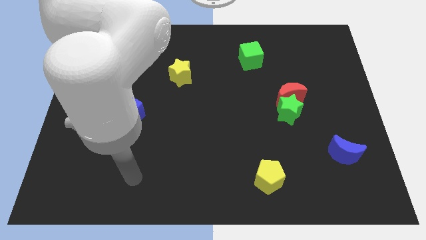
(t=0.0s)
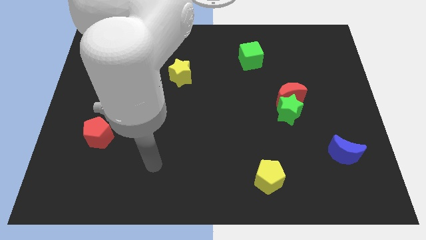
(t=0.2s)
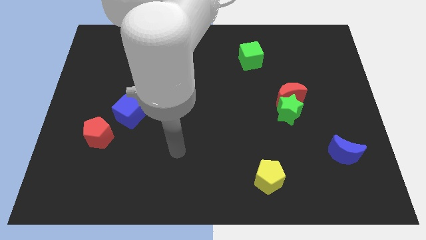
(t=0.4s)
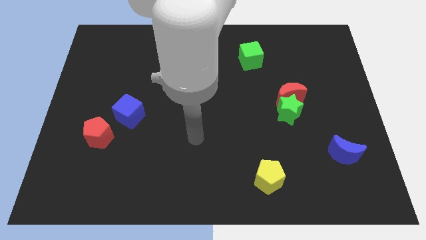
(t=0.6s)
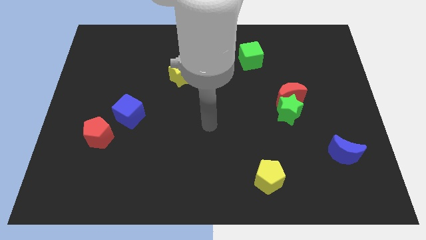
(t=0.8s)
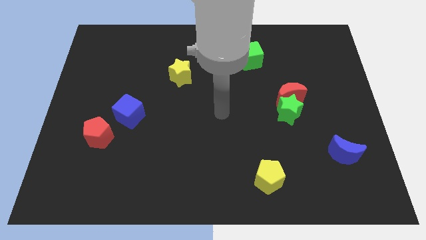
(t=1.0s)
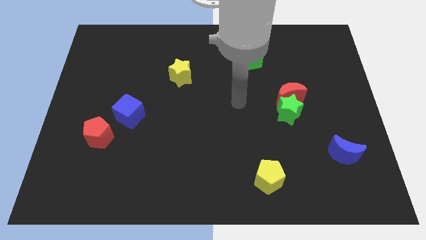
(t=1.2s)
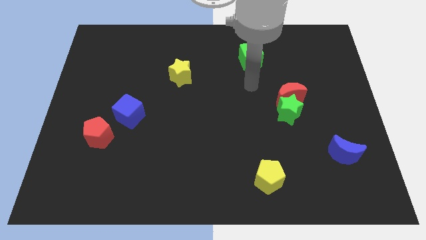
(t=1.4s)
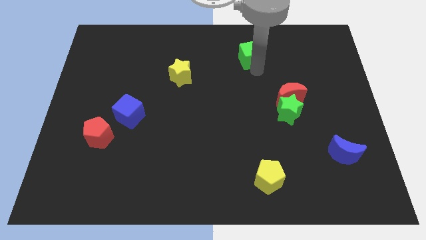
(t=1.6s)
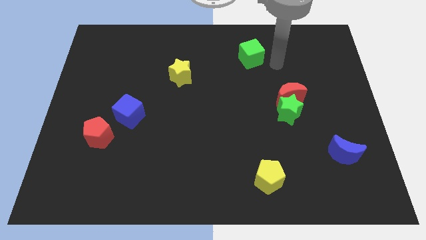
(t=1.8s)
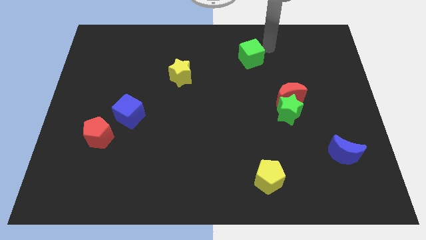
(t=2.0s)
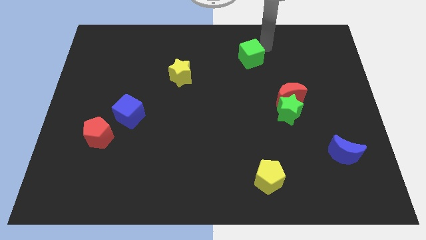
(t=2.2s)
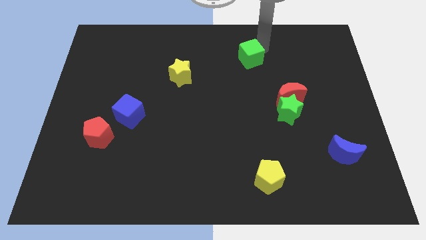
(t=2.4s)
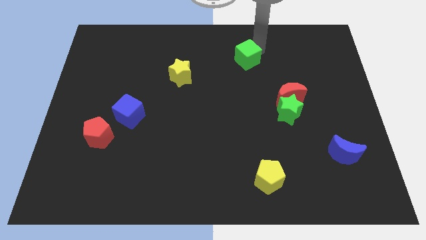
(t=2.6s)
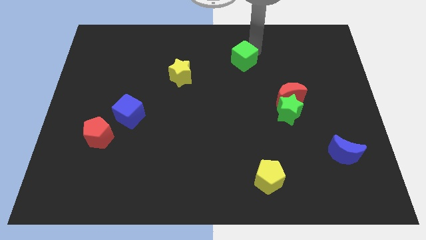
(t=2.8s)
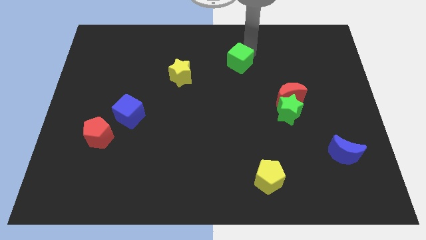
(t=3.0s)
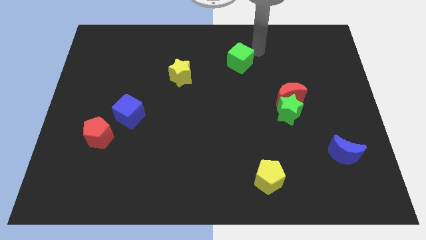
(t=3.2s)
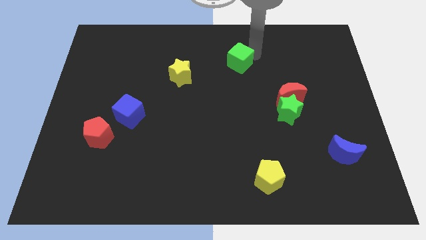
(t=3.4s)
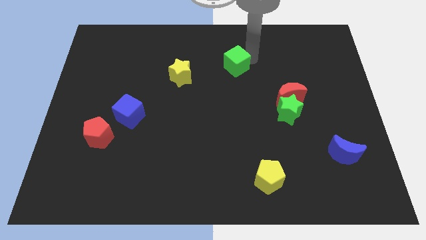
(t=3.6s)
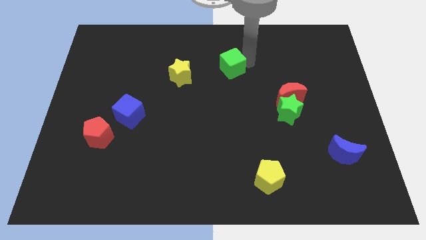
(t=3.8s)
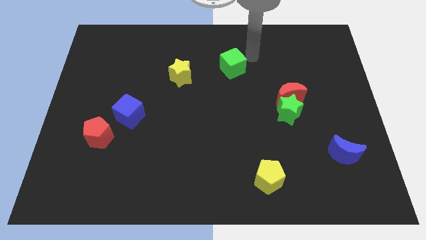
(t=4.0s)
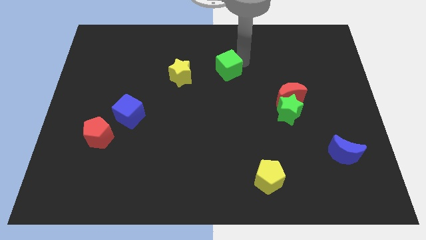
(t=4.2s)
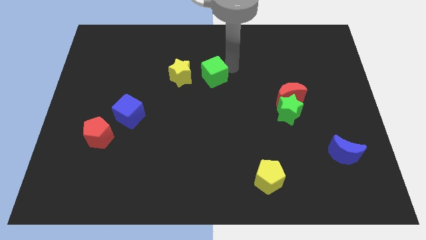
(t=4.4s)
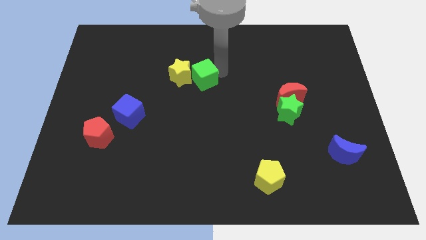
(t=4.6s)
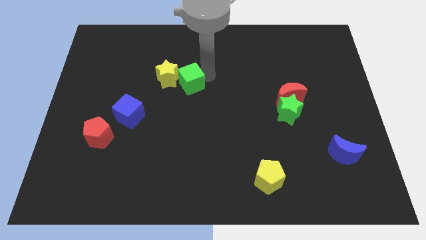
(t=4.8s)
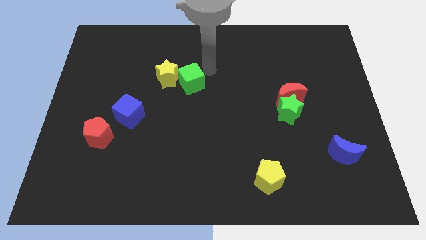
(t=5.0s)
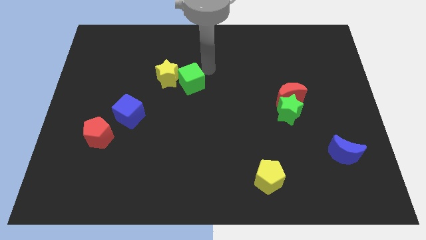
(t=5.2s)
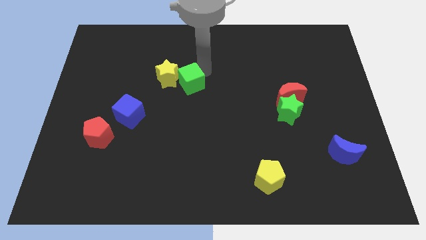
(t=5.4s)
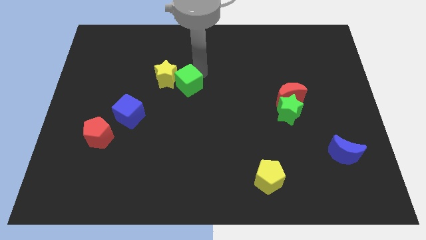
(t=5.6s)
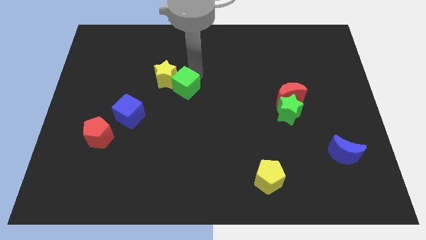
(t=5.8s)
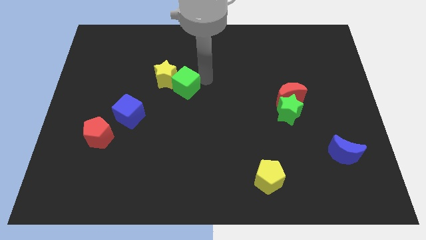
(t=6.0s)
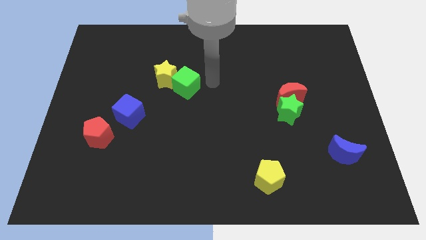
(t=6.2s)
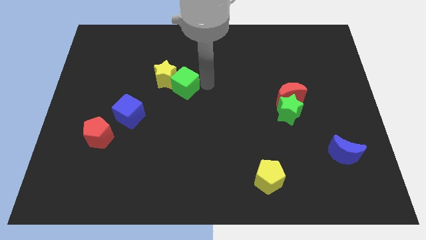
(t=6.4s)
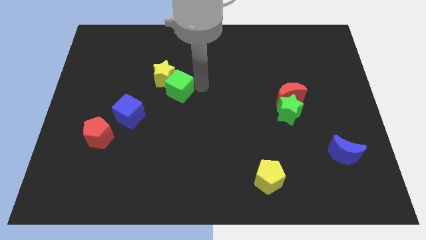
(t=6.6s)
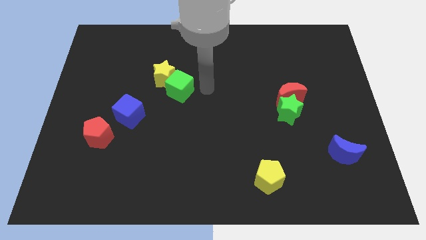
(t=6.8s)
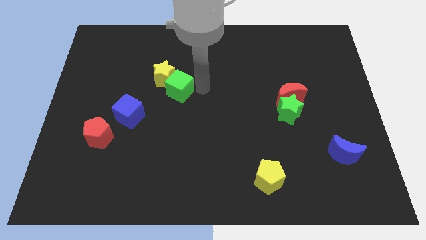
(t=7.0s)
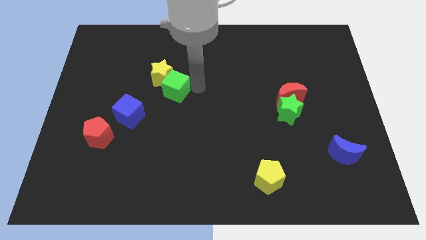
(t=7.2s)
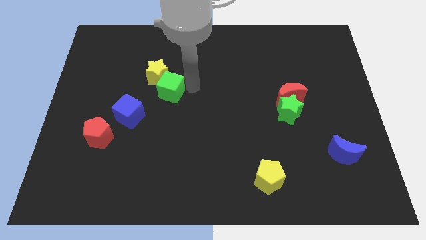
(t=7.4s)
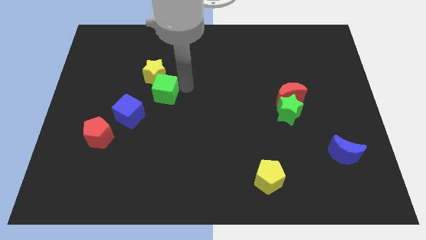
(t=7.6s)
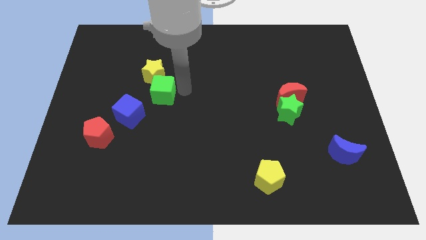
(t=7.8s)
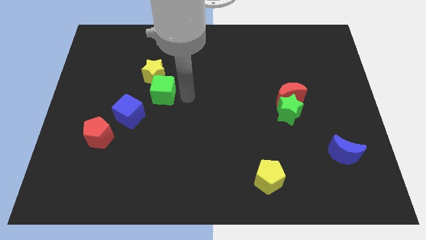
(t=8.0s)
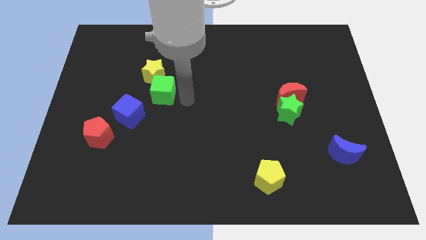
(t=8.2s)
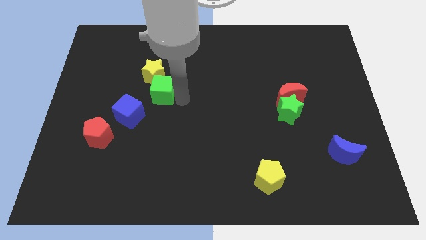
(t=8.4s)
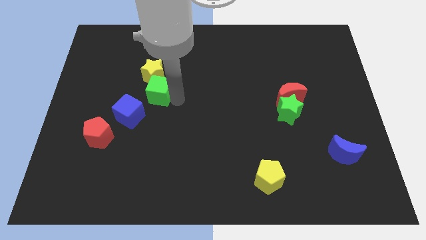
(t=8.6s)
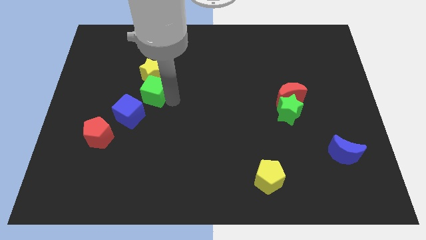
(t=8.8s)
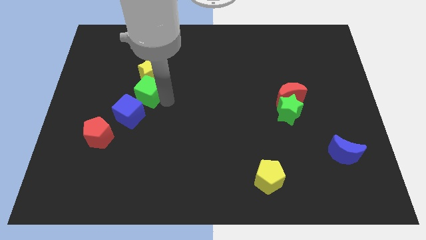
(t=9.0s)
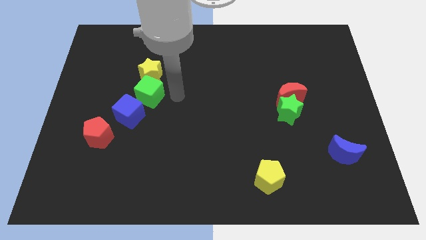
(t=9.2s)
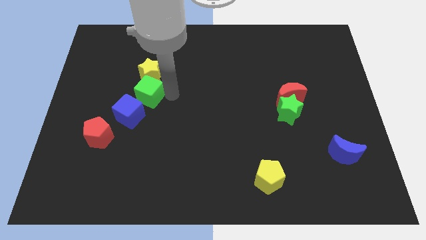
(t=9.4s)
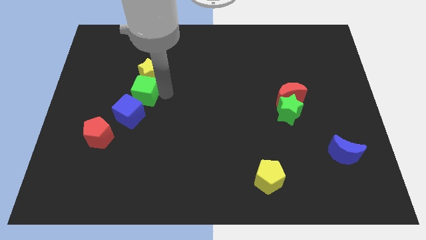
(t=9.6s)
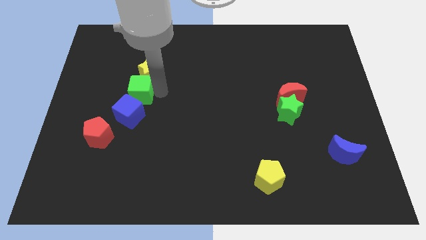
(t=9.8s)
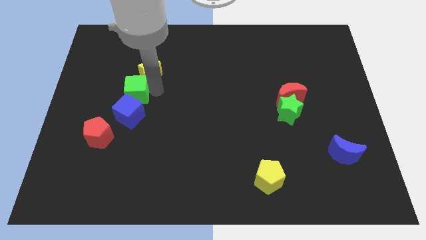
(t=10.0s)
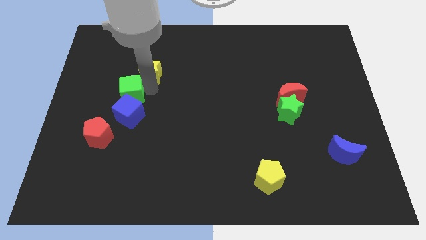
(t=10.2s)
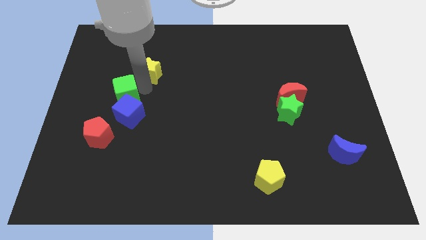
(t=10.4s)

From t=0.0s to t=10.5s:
slide the green cube to the top side of the red pentagon

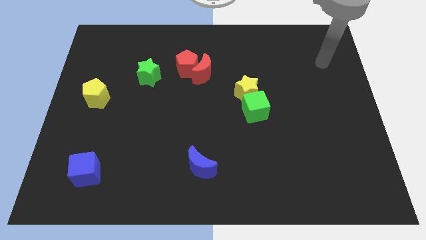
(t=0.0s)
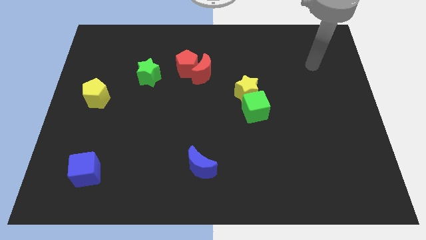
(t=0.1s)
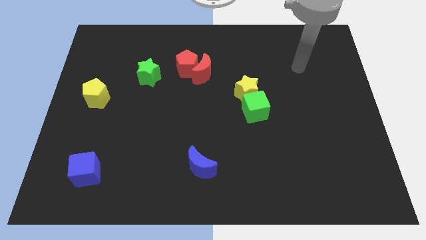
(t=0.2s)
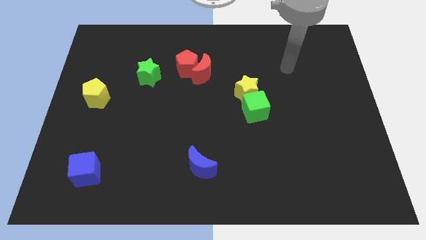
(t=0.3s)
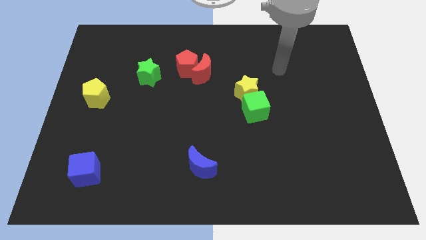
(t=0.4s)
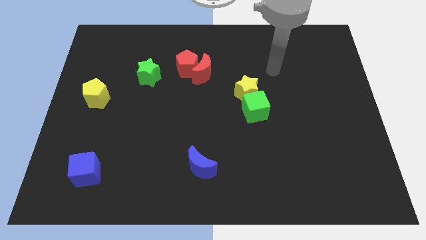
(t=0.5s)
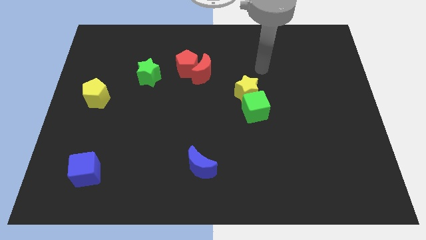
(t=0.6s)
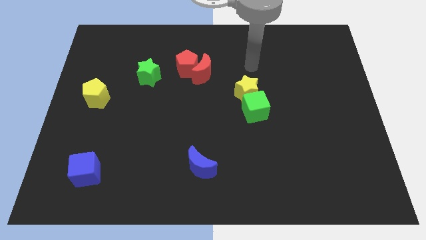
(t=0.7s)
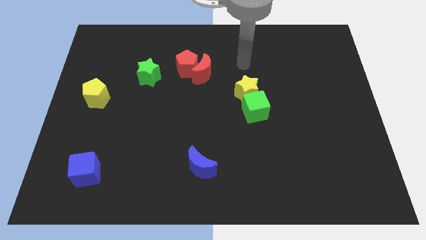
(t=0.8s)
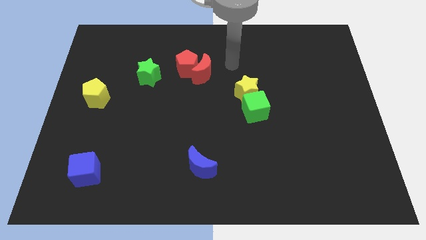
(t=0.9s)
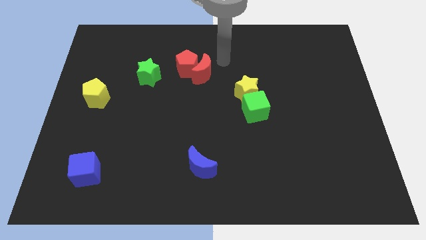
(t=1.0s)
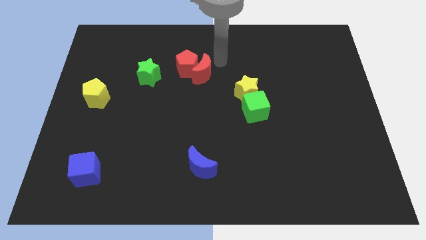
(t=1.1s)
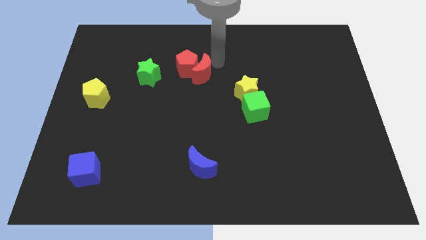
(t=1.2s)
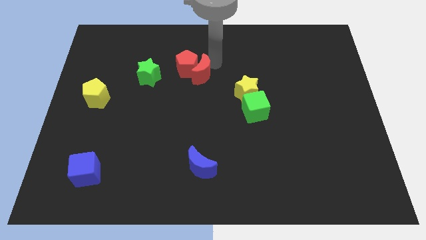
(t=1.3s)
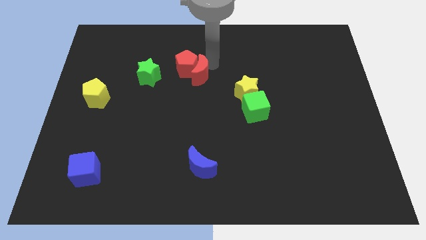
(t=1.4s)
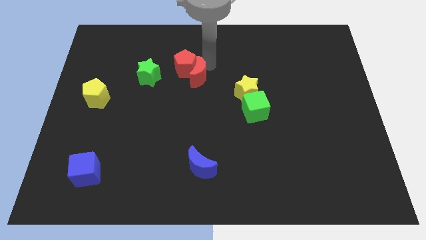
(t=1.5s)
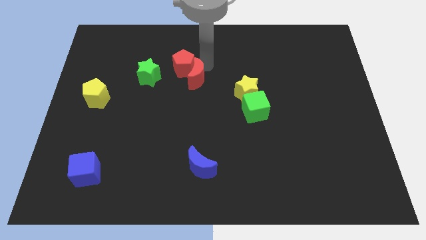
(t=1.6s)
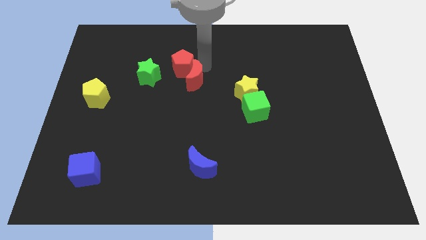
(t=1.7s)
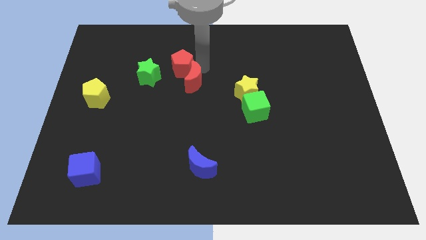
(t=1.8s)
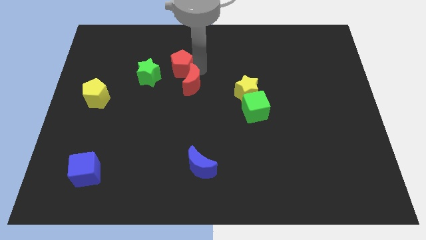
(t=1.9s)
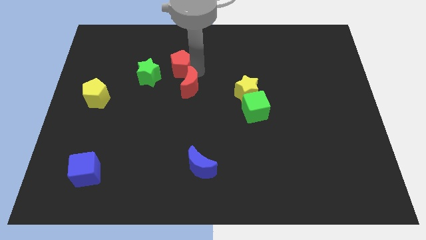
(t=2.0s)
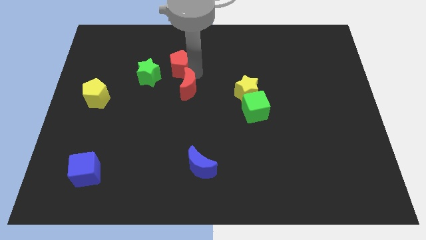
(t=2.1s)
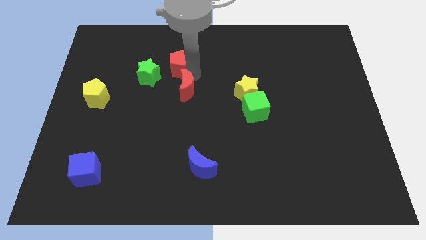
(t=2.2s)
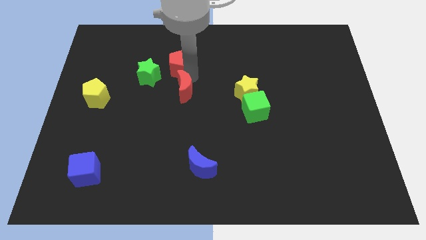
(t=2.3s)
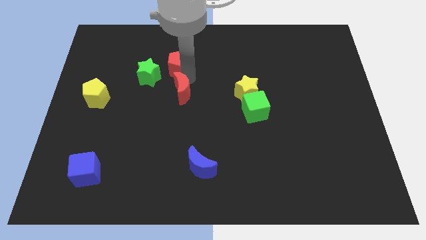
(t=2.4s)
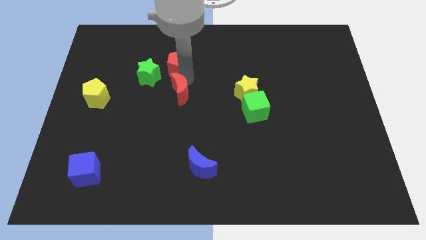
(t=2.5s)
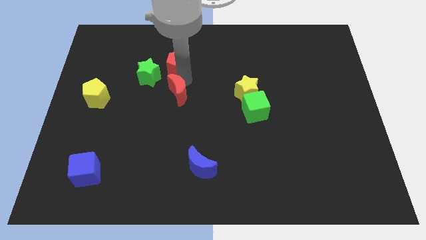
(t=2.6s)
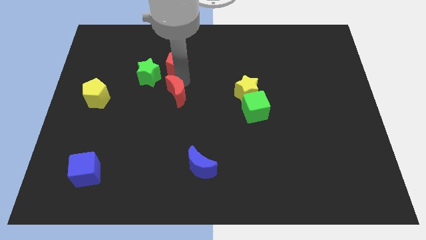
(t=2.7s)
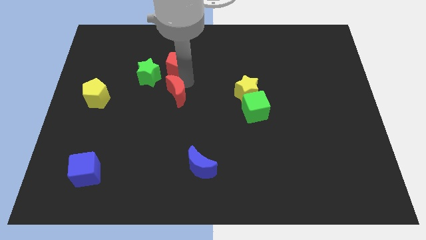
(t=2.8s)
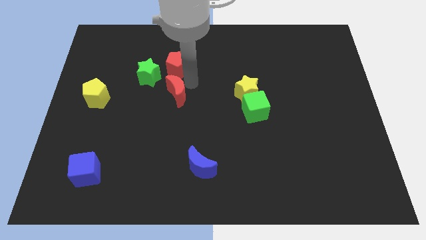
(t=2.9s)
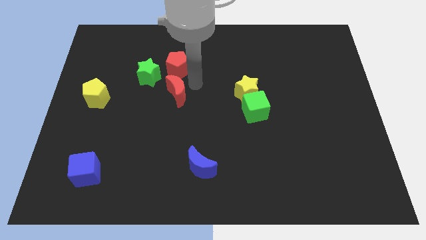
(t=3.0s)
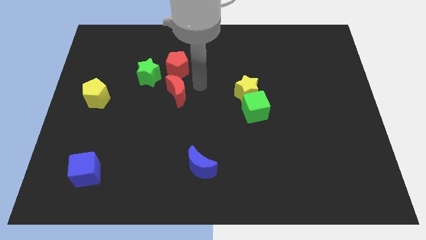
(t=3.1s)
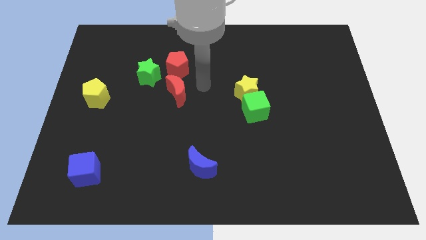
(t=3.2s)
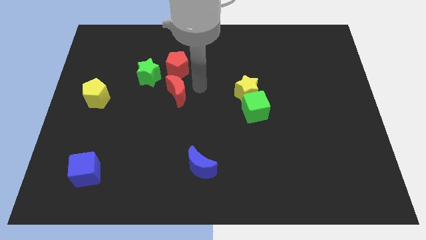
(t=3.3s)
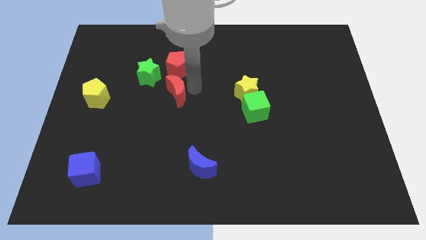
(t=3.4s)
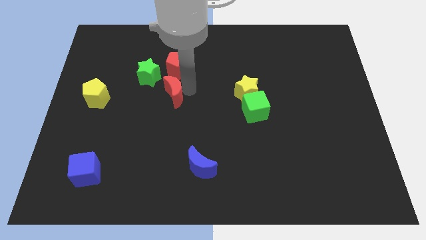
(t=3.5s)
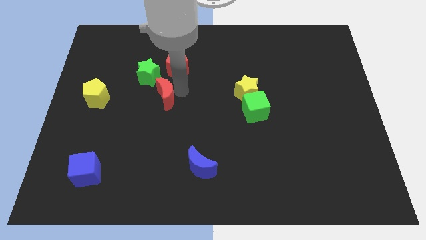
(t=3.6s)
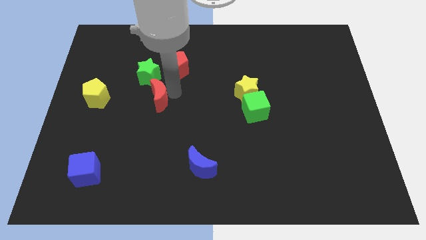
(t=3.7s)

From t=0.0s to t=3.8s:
move the red moon below the green star
